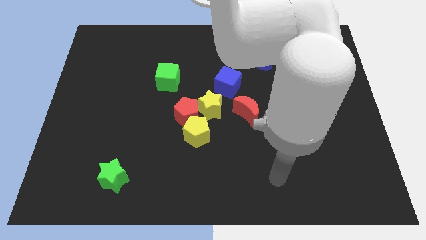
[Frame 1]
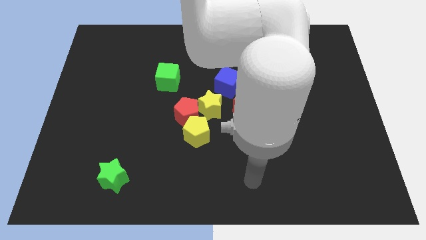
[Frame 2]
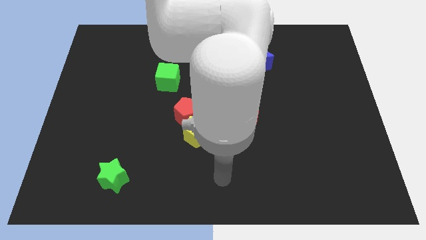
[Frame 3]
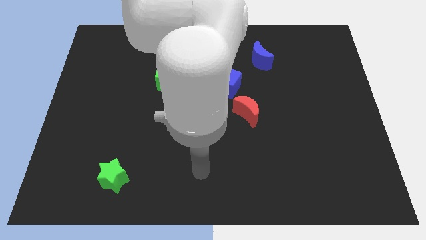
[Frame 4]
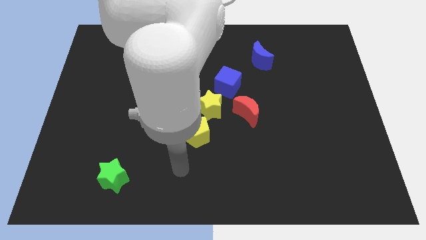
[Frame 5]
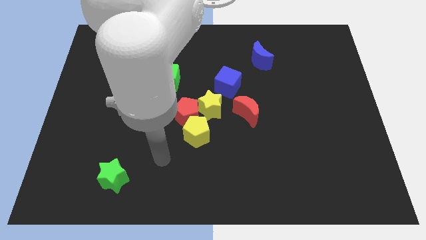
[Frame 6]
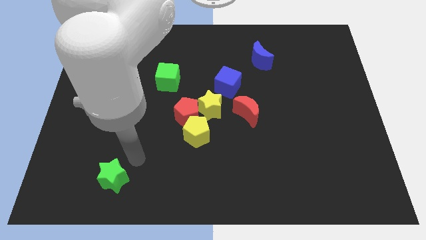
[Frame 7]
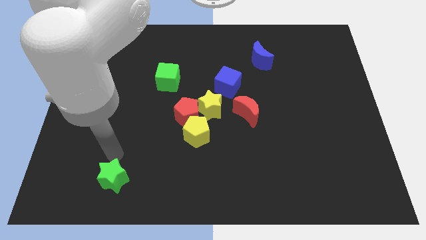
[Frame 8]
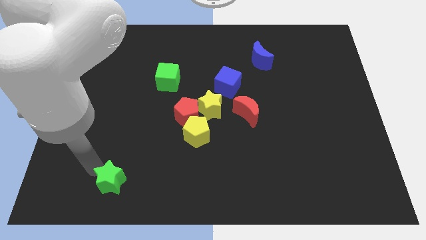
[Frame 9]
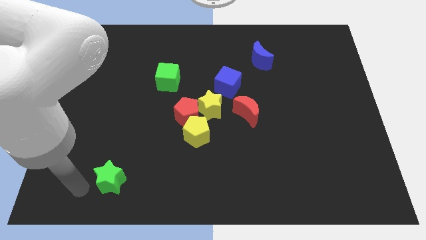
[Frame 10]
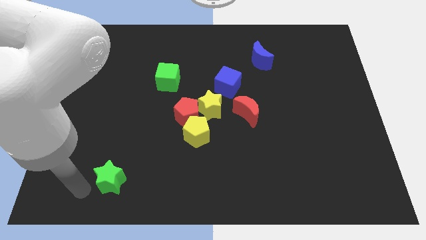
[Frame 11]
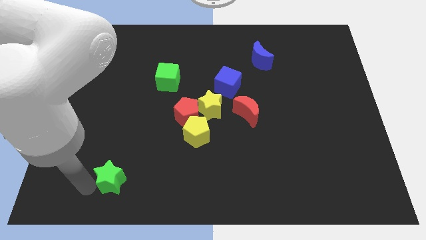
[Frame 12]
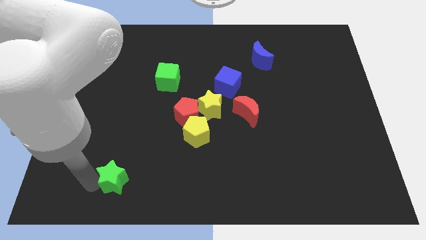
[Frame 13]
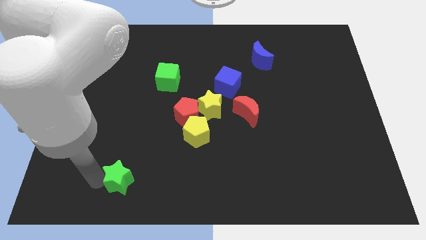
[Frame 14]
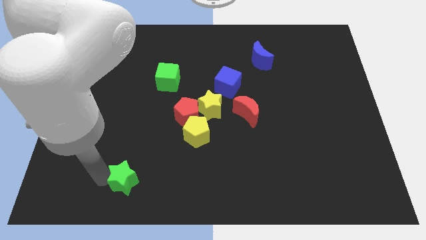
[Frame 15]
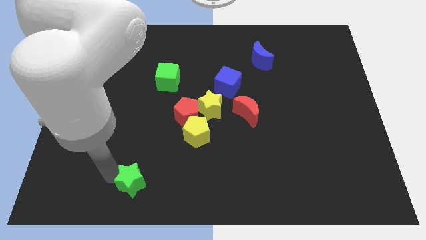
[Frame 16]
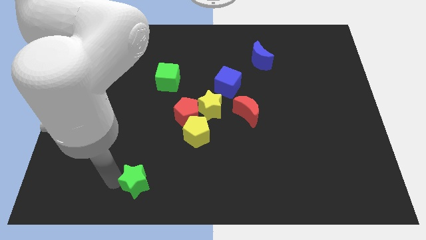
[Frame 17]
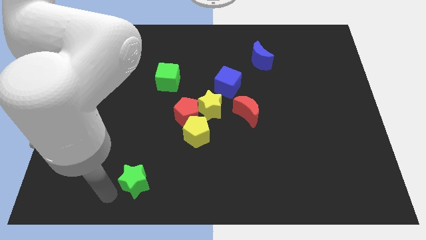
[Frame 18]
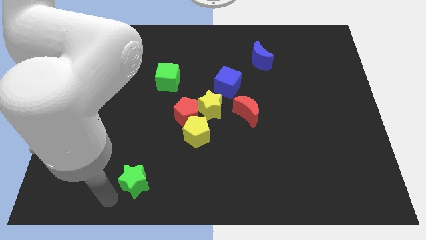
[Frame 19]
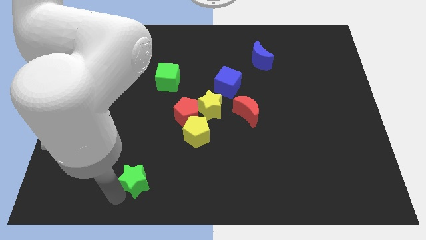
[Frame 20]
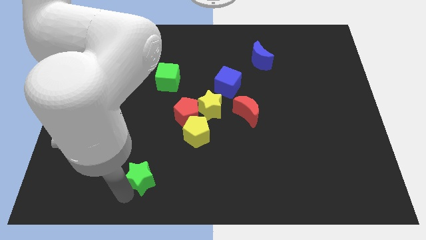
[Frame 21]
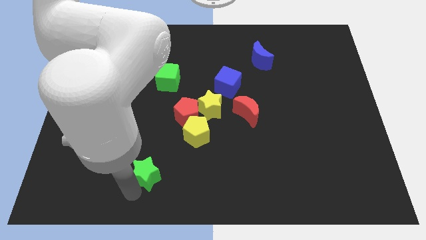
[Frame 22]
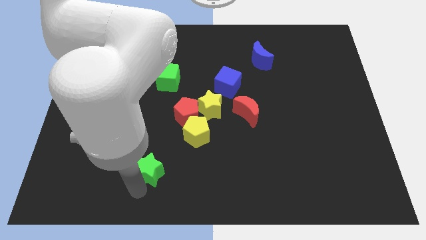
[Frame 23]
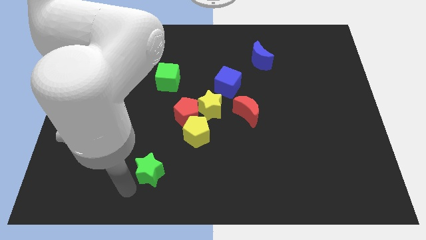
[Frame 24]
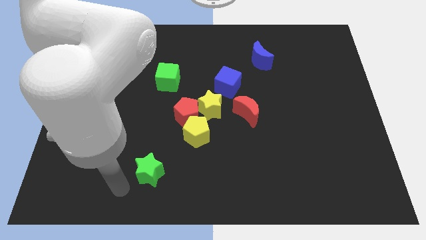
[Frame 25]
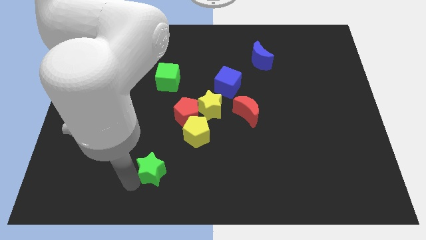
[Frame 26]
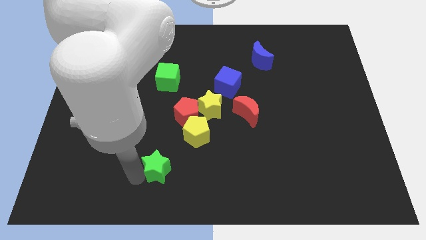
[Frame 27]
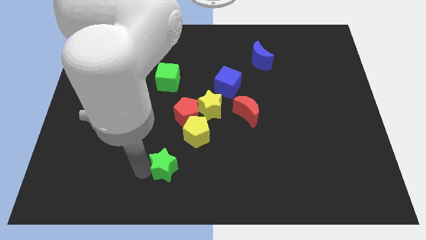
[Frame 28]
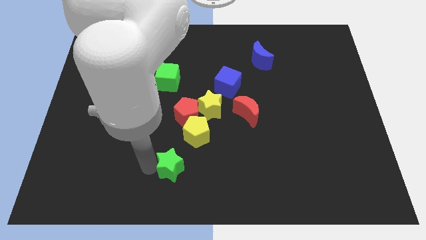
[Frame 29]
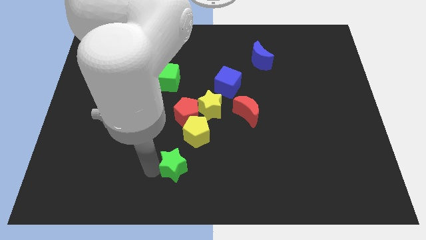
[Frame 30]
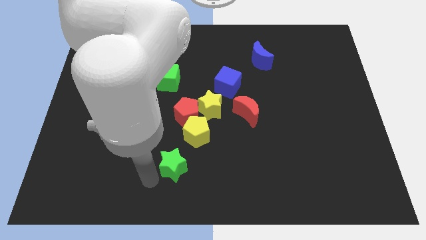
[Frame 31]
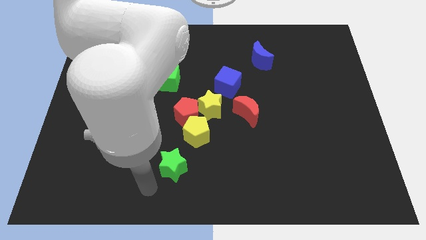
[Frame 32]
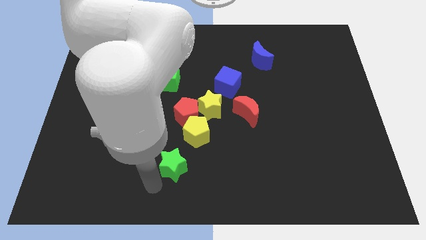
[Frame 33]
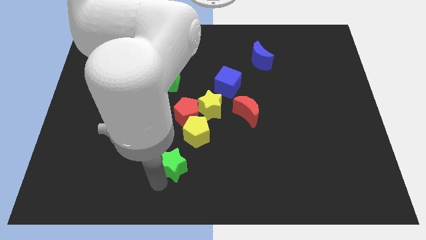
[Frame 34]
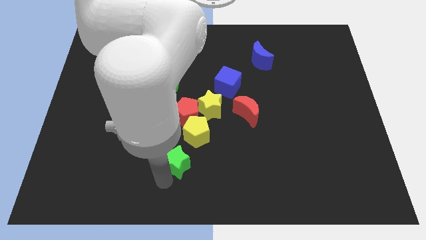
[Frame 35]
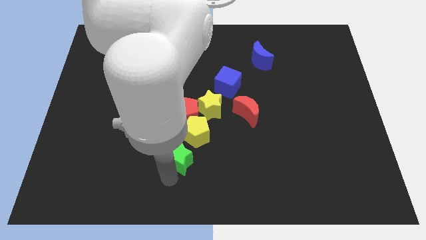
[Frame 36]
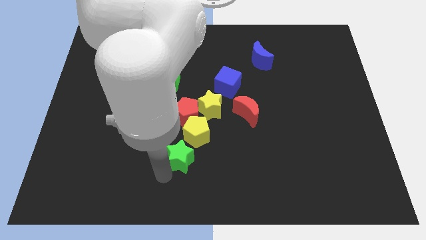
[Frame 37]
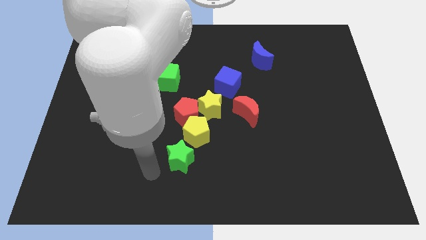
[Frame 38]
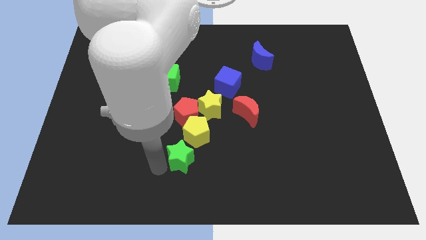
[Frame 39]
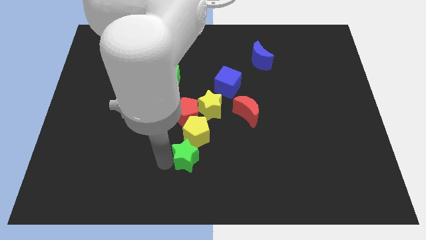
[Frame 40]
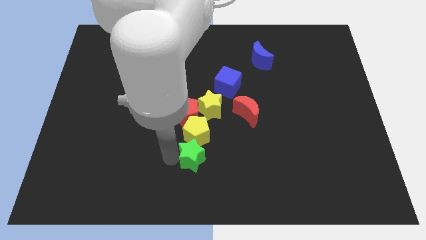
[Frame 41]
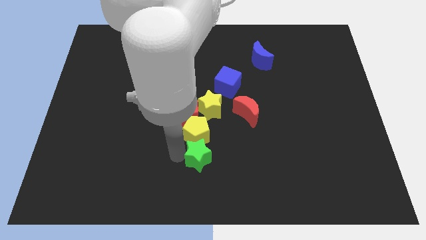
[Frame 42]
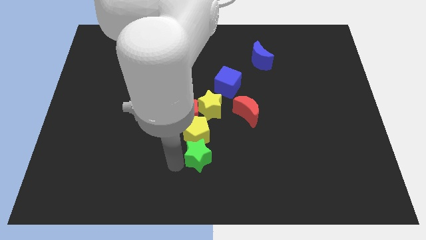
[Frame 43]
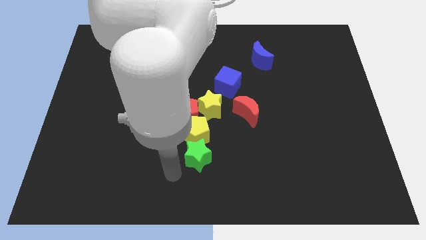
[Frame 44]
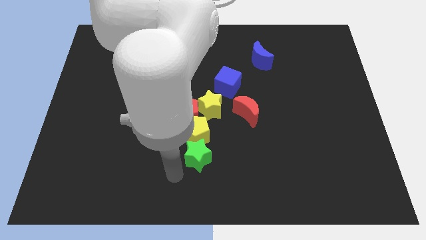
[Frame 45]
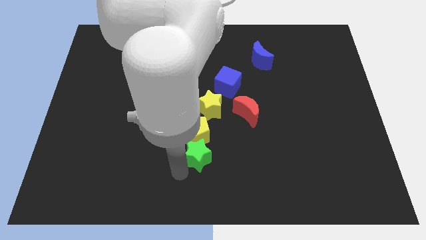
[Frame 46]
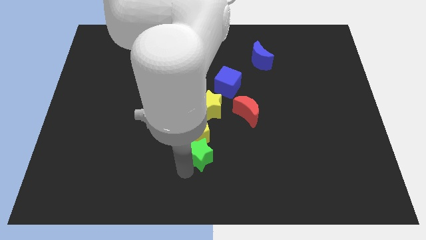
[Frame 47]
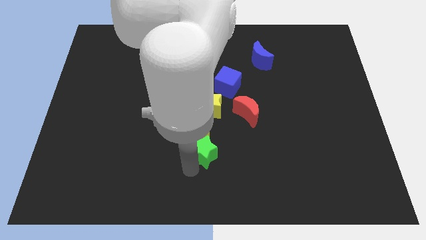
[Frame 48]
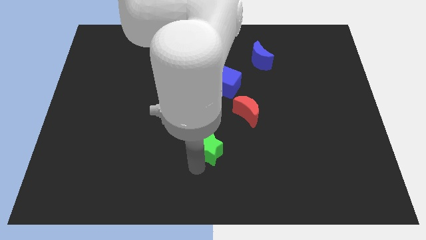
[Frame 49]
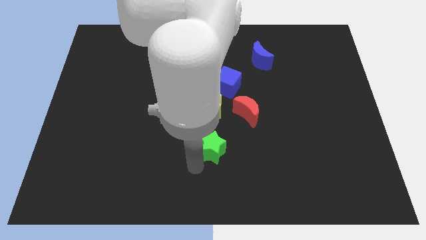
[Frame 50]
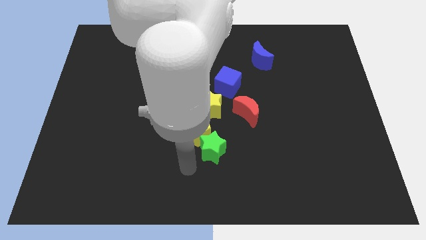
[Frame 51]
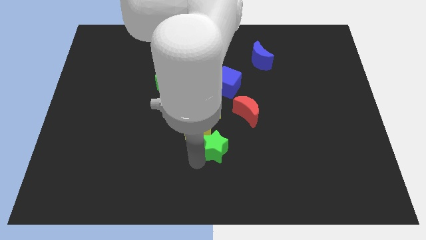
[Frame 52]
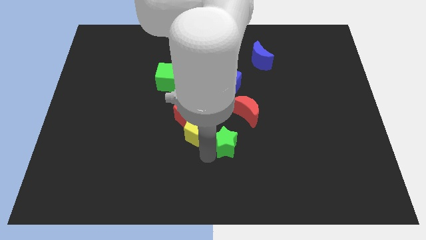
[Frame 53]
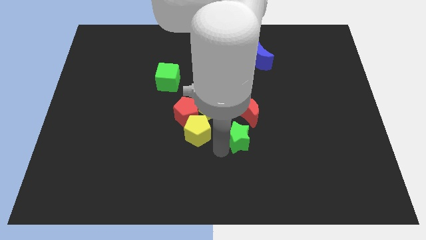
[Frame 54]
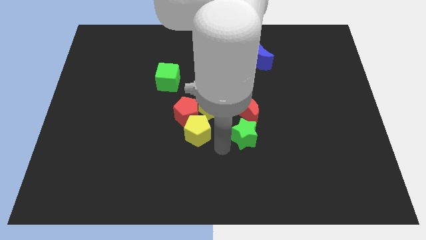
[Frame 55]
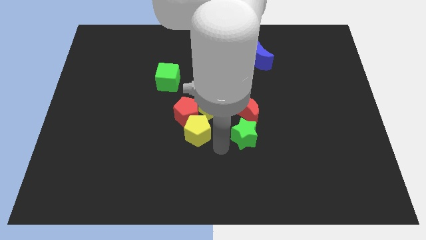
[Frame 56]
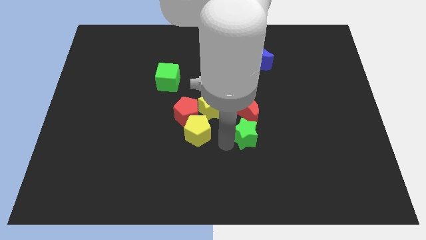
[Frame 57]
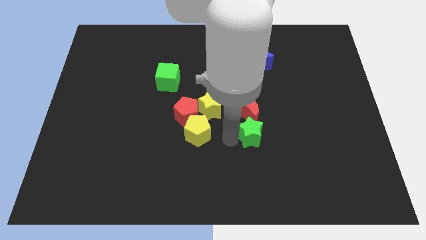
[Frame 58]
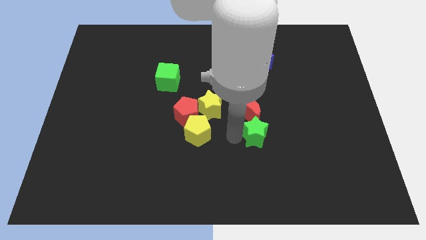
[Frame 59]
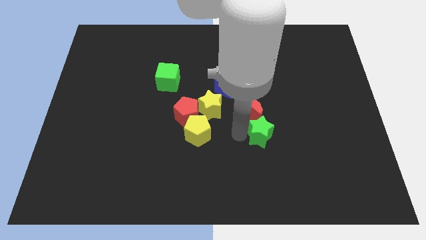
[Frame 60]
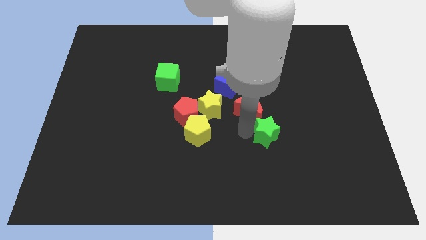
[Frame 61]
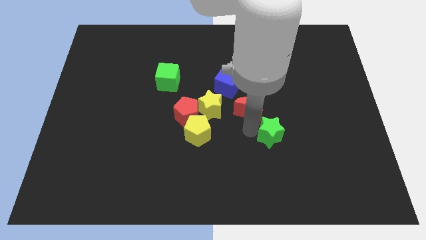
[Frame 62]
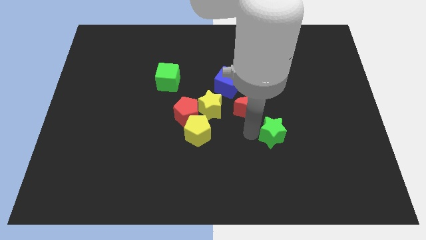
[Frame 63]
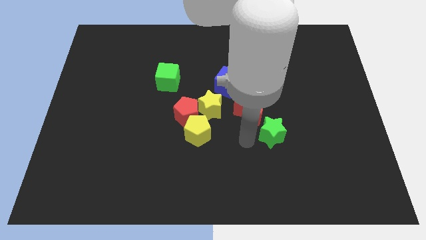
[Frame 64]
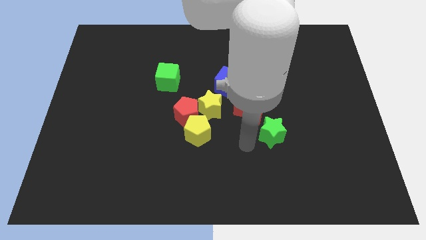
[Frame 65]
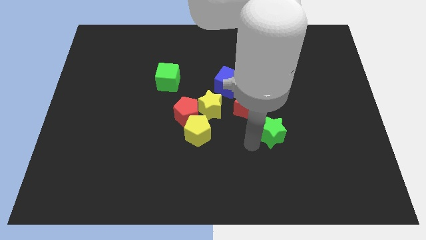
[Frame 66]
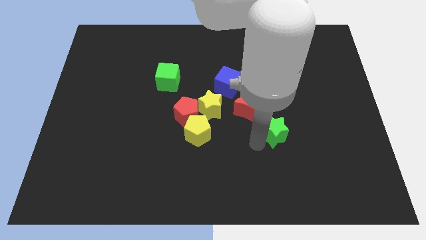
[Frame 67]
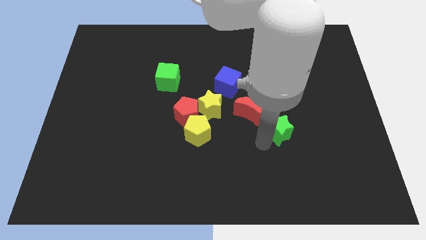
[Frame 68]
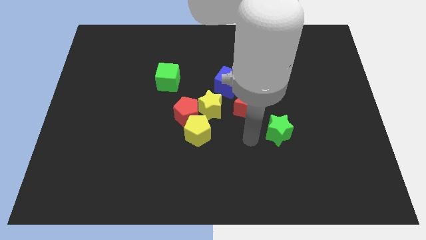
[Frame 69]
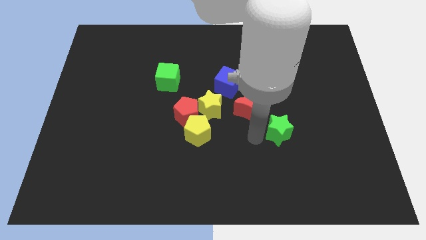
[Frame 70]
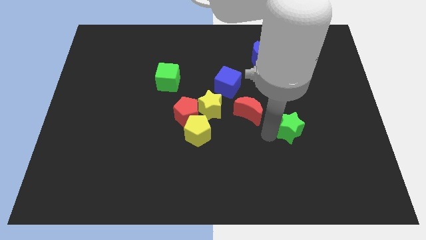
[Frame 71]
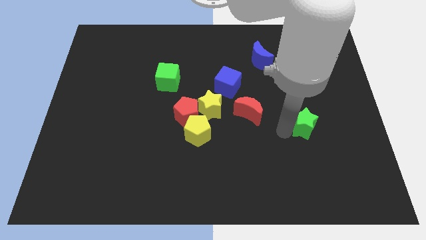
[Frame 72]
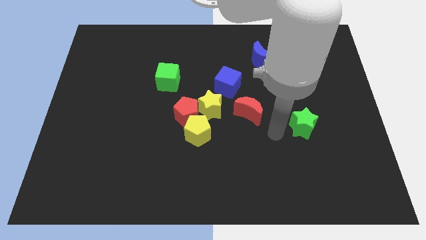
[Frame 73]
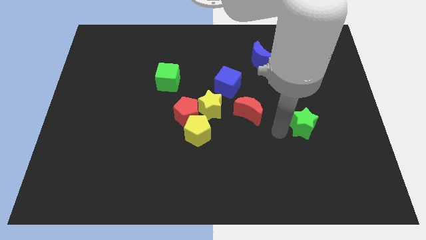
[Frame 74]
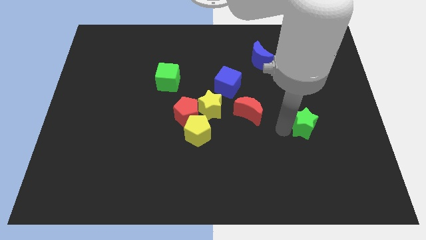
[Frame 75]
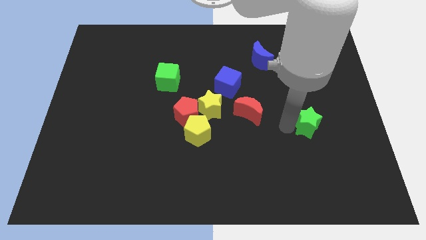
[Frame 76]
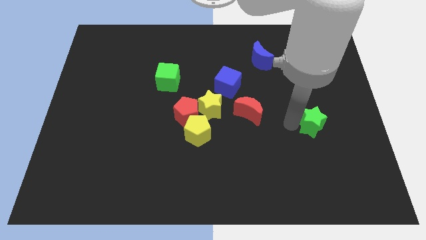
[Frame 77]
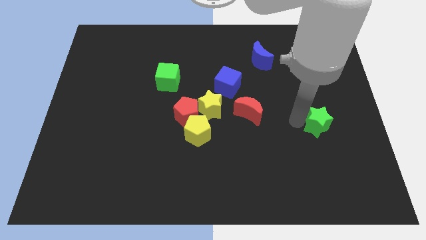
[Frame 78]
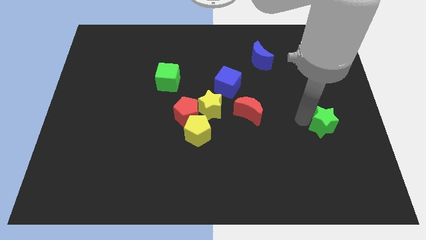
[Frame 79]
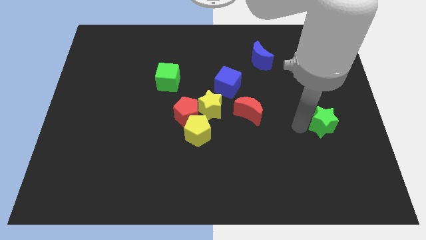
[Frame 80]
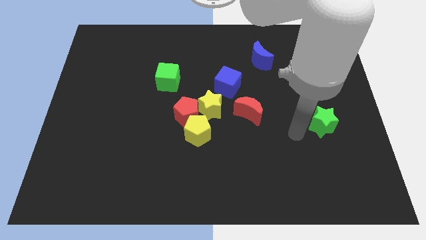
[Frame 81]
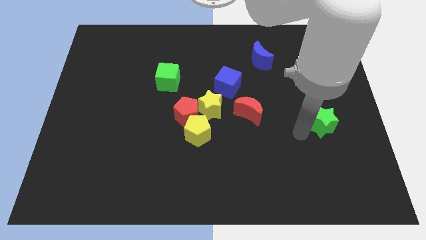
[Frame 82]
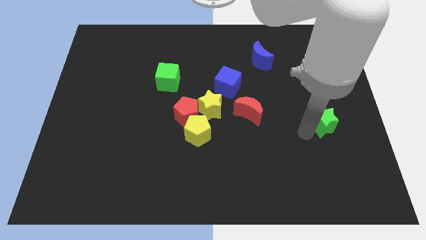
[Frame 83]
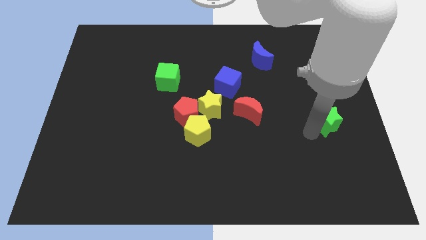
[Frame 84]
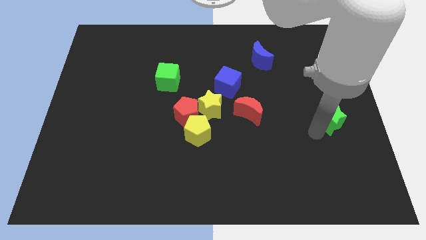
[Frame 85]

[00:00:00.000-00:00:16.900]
slide the green star to the right side
